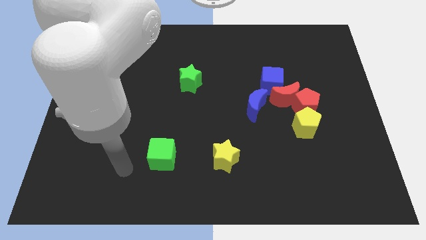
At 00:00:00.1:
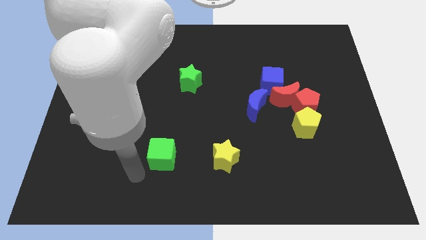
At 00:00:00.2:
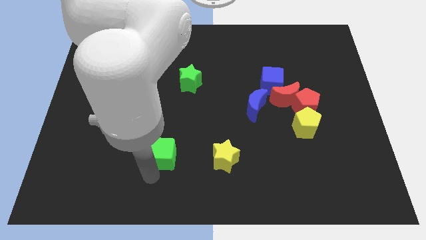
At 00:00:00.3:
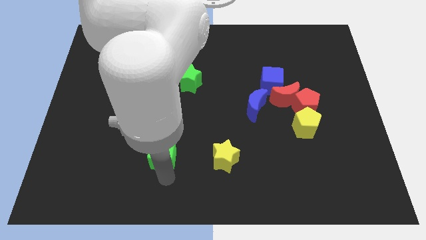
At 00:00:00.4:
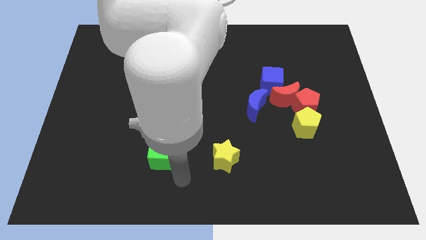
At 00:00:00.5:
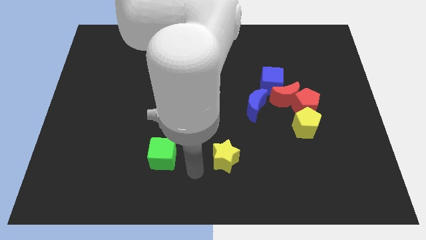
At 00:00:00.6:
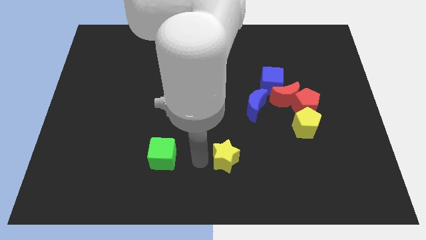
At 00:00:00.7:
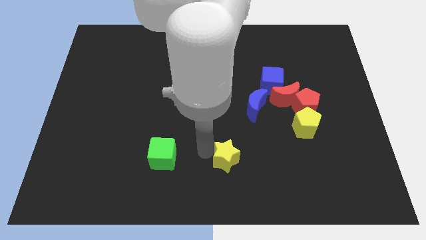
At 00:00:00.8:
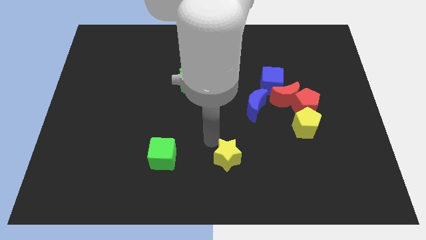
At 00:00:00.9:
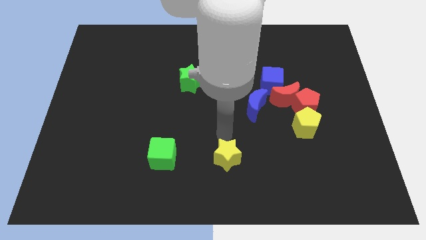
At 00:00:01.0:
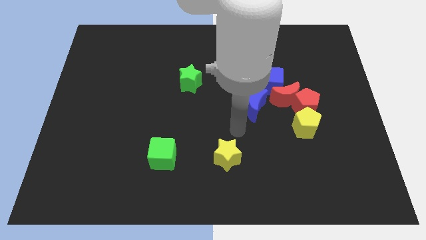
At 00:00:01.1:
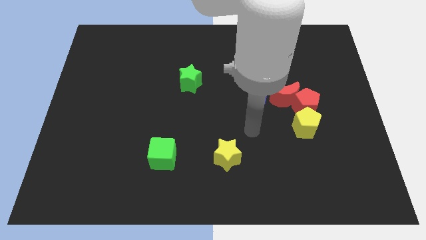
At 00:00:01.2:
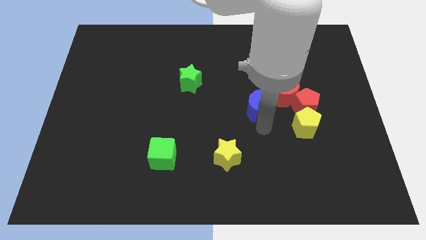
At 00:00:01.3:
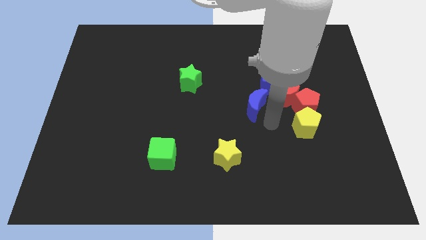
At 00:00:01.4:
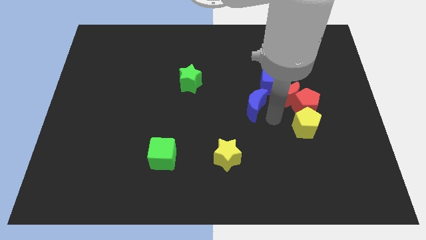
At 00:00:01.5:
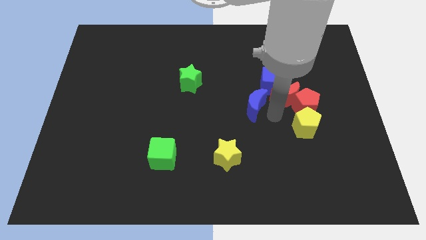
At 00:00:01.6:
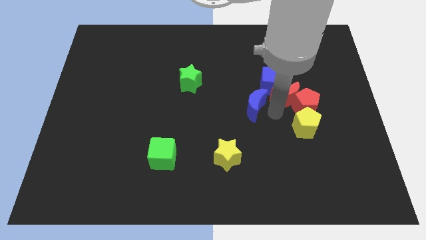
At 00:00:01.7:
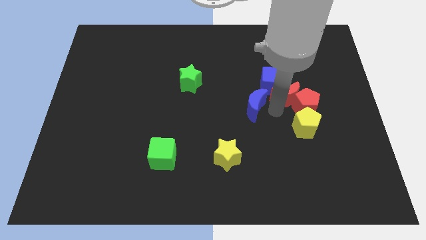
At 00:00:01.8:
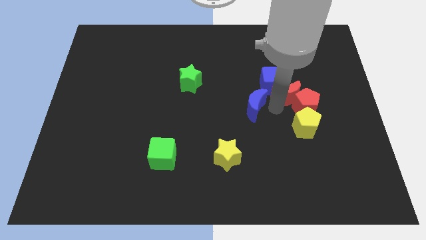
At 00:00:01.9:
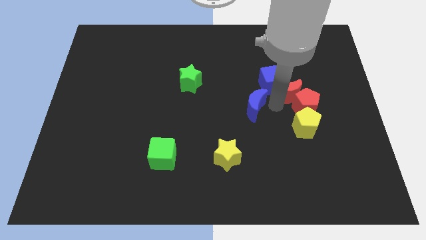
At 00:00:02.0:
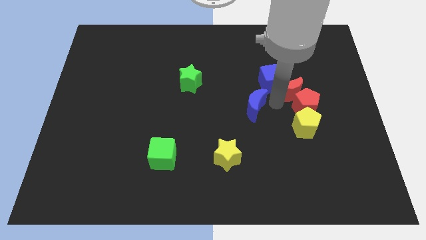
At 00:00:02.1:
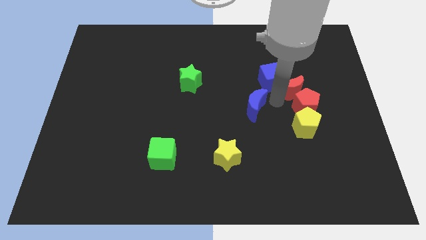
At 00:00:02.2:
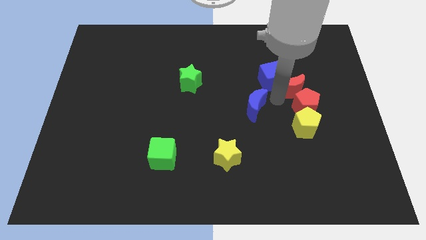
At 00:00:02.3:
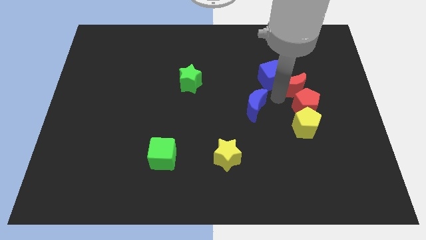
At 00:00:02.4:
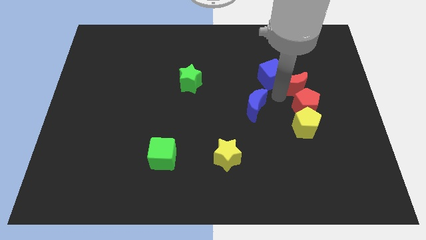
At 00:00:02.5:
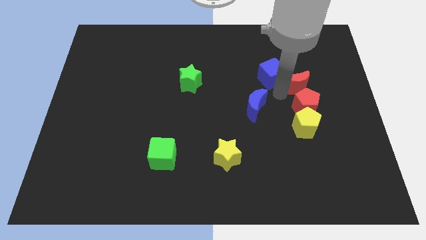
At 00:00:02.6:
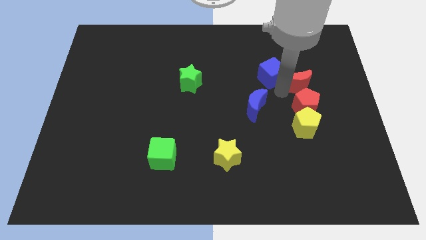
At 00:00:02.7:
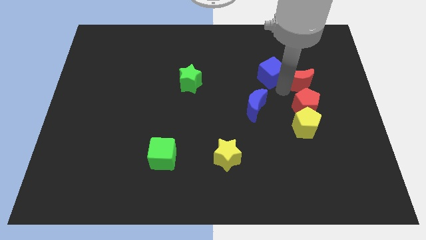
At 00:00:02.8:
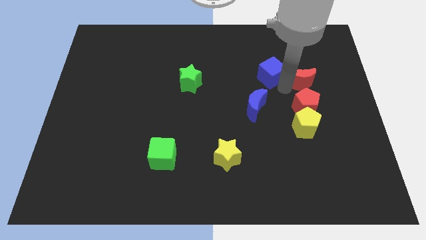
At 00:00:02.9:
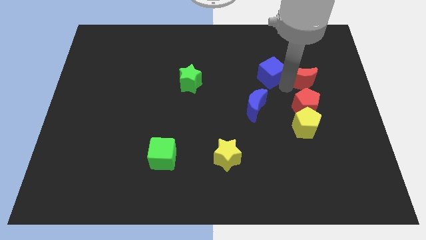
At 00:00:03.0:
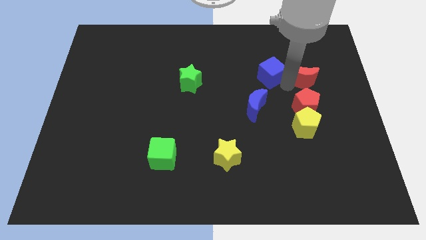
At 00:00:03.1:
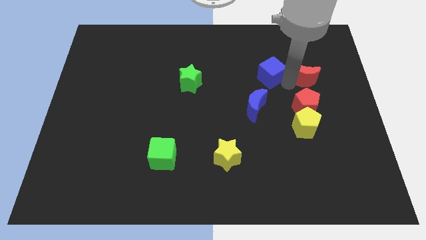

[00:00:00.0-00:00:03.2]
move the red moon away from the group

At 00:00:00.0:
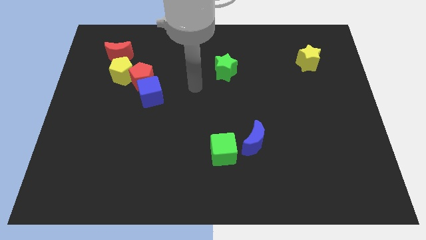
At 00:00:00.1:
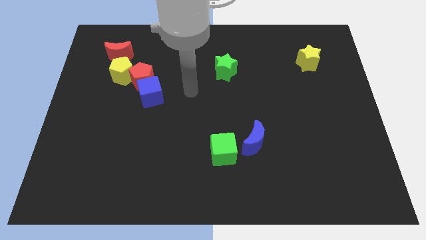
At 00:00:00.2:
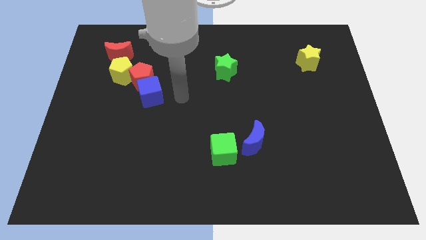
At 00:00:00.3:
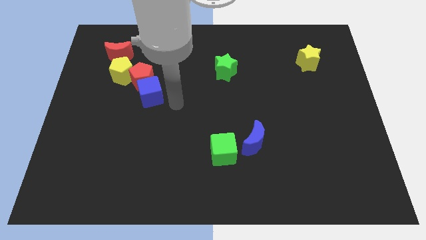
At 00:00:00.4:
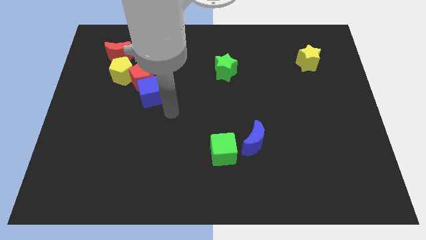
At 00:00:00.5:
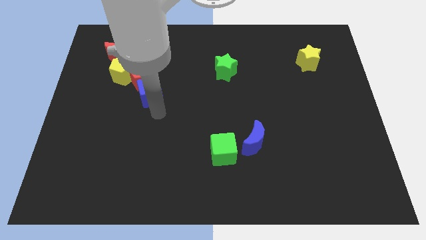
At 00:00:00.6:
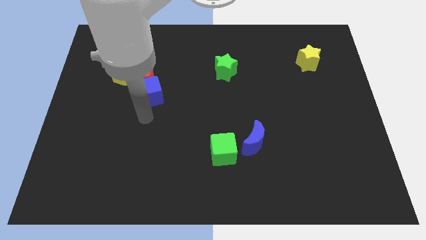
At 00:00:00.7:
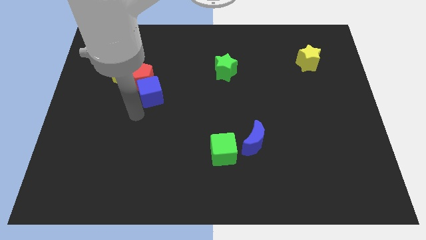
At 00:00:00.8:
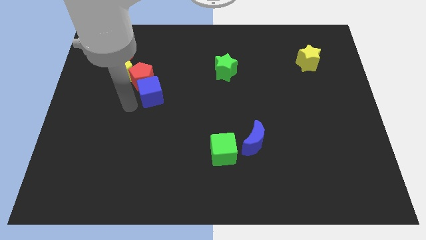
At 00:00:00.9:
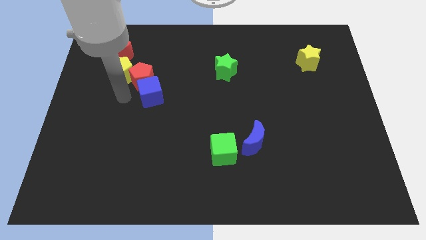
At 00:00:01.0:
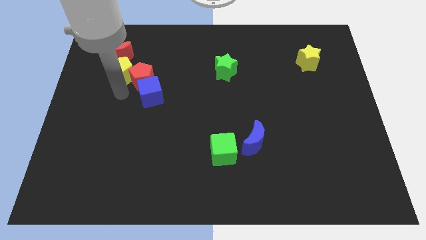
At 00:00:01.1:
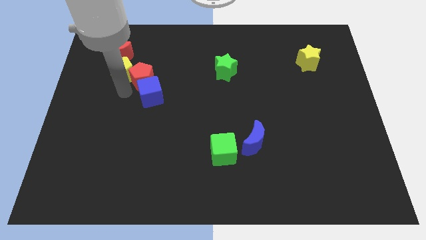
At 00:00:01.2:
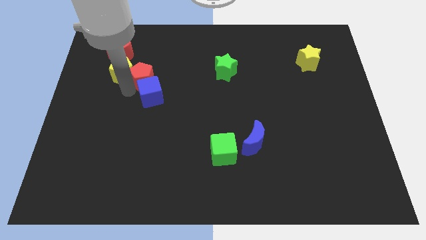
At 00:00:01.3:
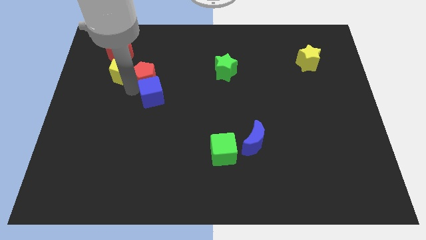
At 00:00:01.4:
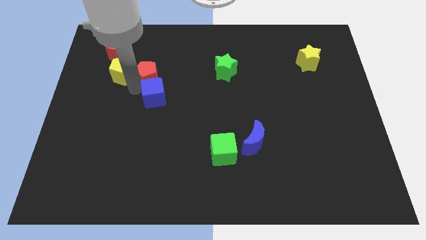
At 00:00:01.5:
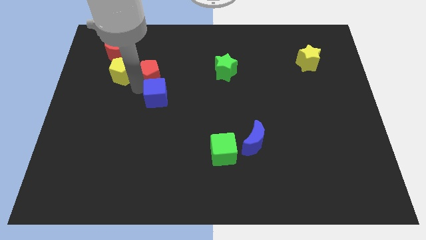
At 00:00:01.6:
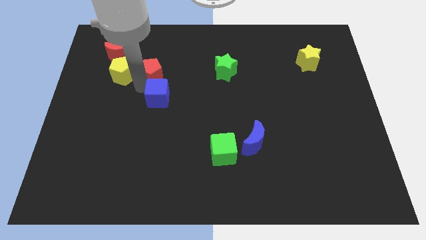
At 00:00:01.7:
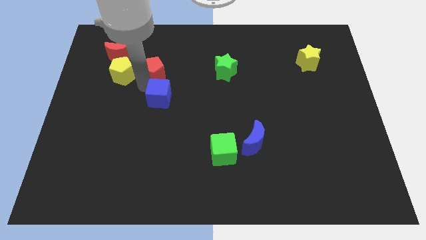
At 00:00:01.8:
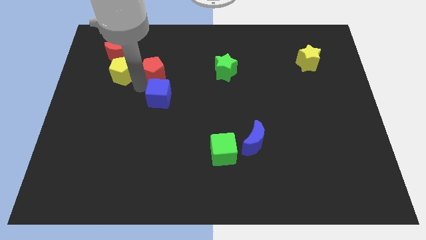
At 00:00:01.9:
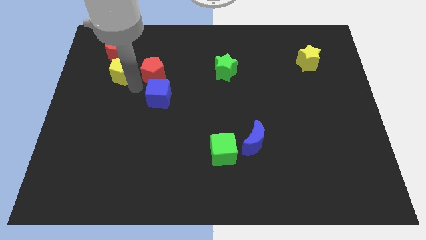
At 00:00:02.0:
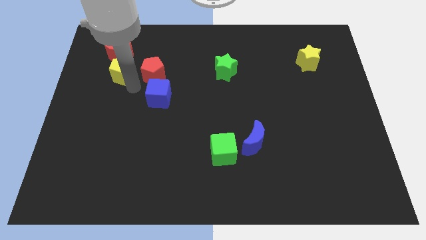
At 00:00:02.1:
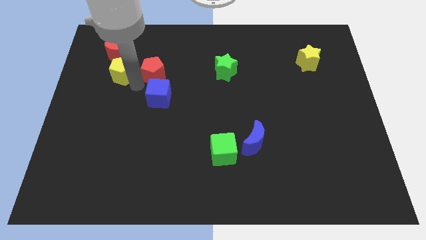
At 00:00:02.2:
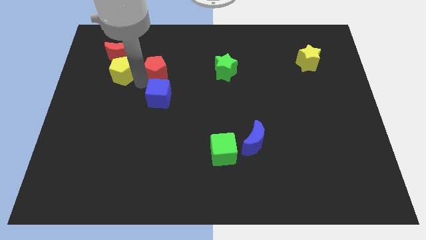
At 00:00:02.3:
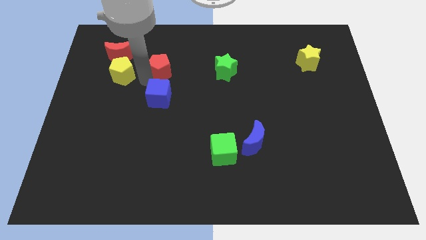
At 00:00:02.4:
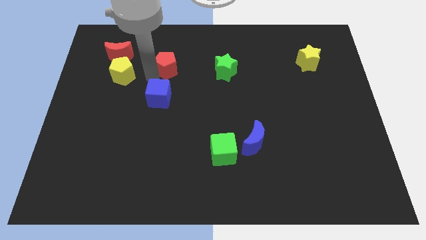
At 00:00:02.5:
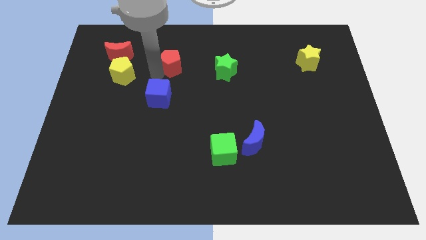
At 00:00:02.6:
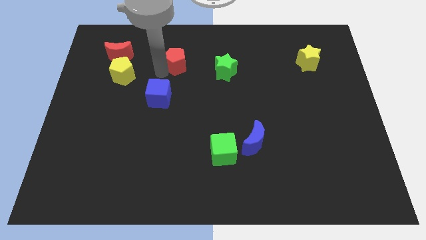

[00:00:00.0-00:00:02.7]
separate the red pentagon from the blue cube and yellow pentagon

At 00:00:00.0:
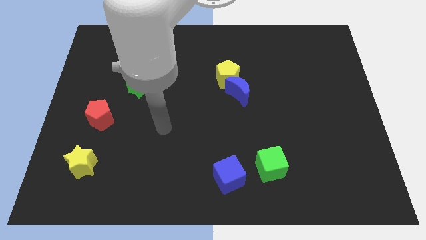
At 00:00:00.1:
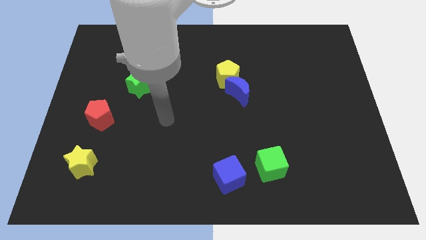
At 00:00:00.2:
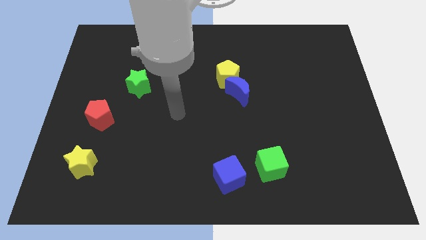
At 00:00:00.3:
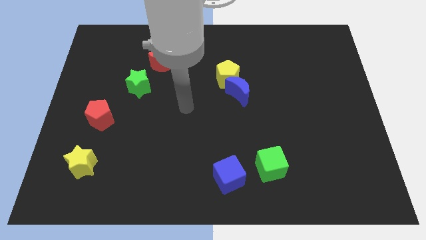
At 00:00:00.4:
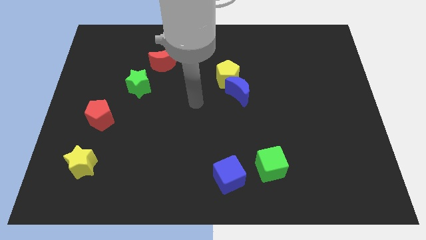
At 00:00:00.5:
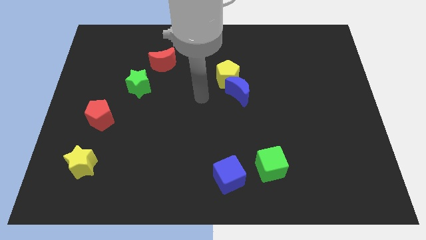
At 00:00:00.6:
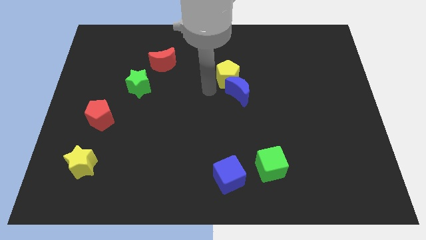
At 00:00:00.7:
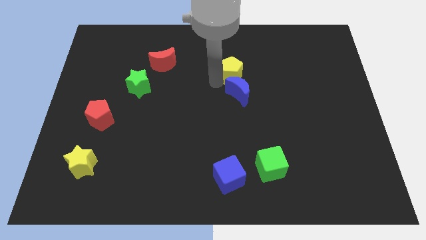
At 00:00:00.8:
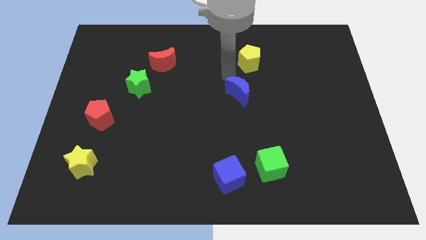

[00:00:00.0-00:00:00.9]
pull the blue moon apart from the yellow pentagon

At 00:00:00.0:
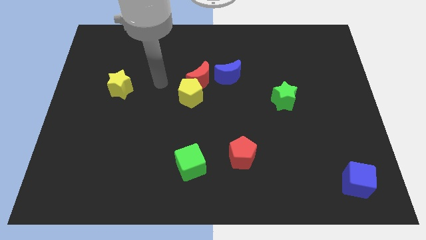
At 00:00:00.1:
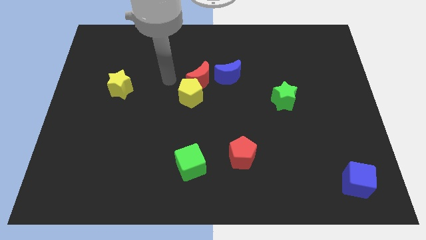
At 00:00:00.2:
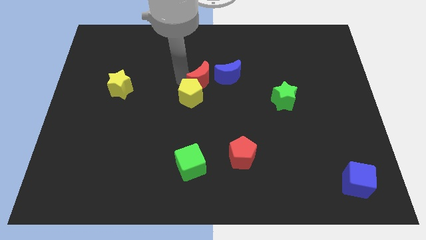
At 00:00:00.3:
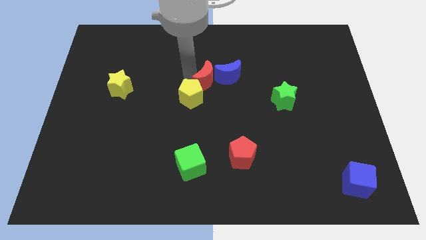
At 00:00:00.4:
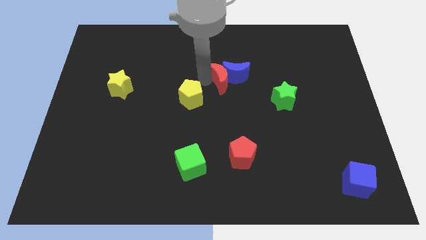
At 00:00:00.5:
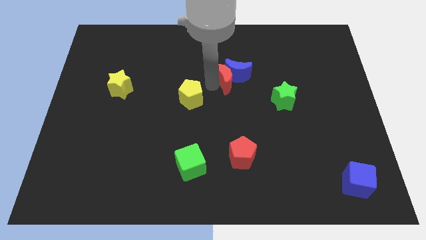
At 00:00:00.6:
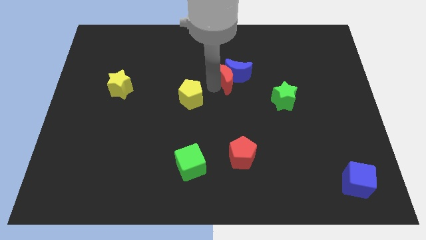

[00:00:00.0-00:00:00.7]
pull the yellow pentagon apart from the red moon

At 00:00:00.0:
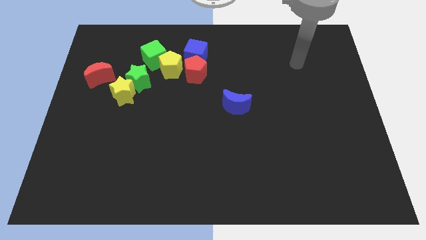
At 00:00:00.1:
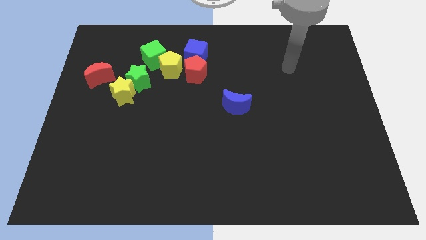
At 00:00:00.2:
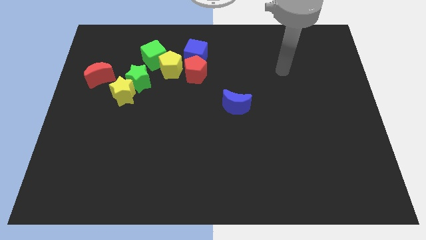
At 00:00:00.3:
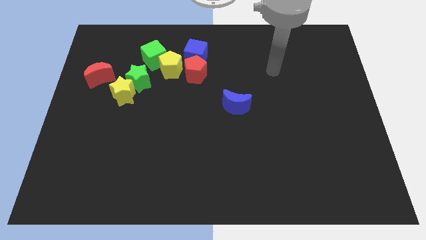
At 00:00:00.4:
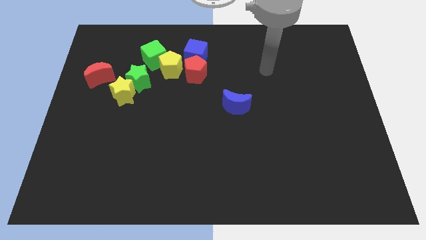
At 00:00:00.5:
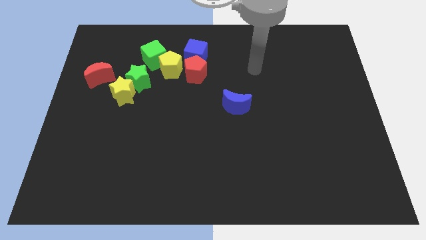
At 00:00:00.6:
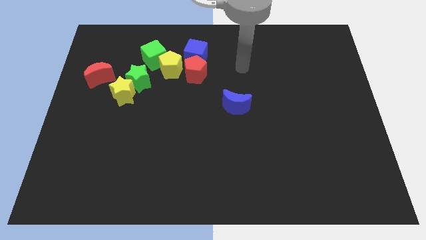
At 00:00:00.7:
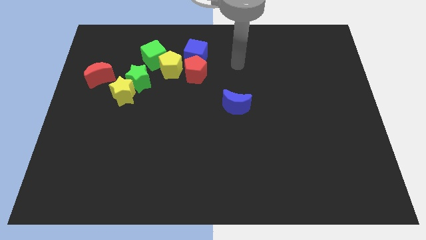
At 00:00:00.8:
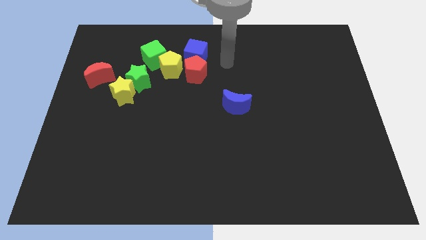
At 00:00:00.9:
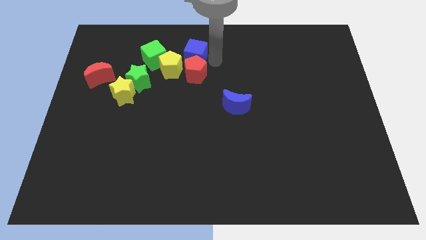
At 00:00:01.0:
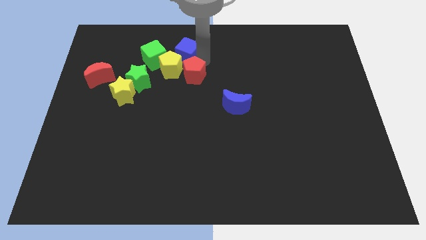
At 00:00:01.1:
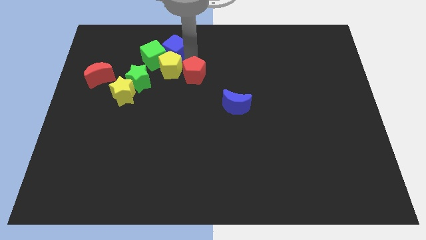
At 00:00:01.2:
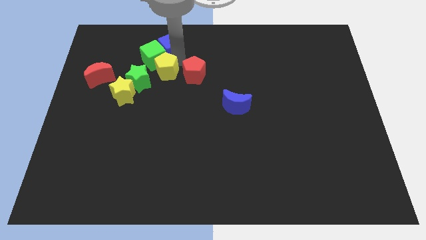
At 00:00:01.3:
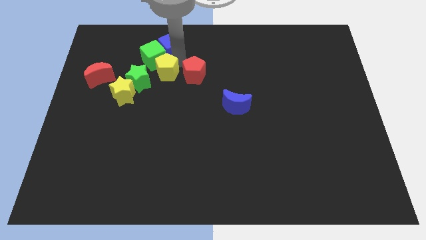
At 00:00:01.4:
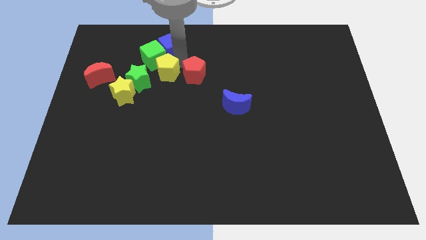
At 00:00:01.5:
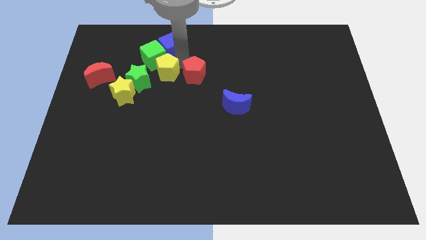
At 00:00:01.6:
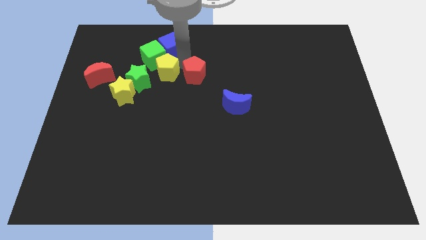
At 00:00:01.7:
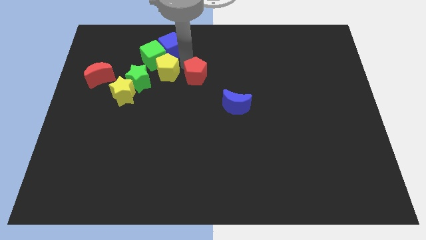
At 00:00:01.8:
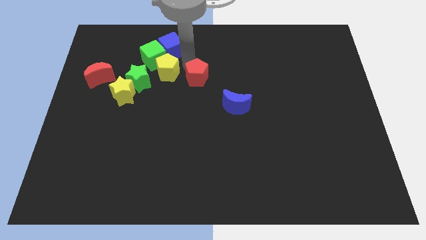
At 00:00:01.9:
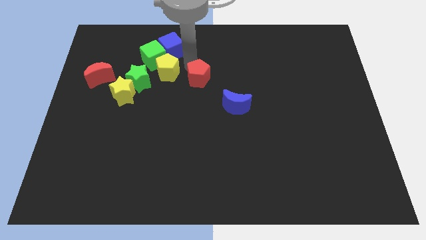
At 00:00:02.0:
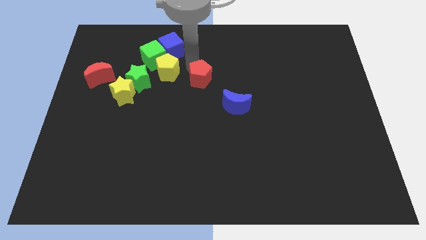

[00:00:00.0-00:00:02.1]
move the red pentagon away from the blue cube and yellow pentagon
